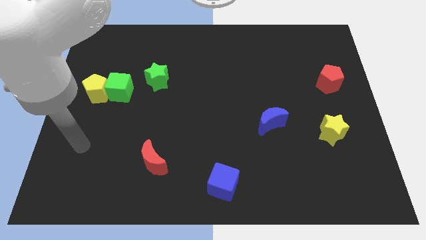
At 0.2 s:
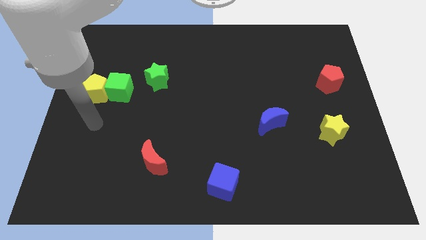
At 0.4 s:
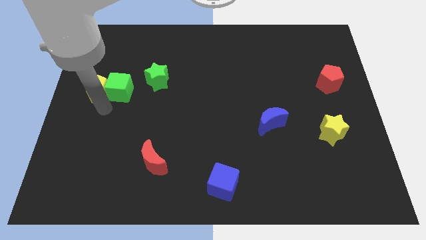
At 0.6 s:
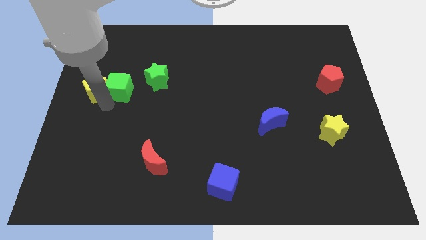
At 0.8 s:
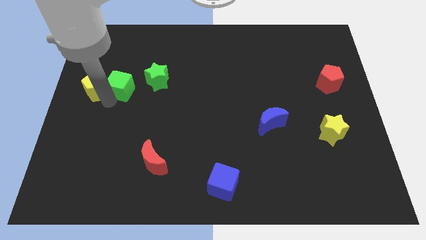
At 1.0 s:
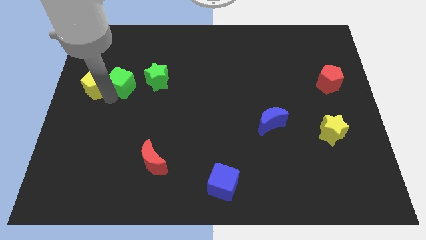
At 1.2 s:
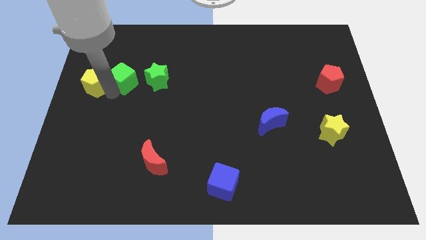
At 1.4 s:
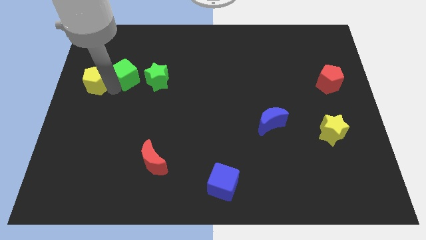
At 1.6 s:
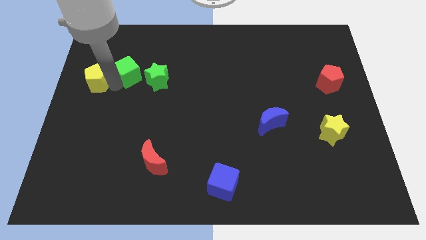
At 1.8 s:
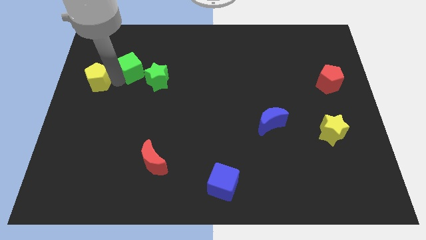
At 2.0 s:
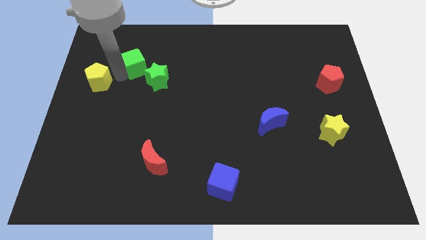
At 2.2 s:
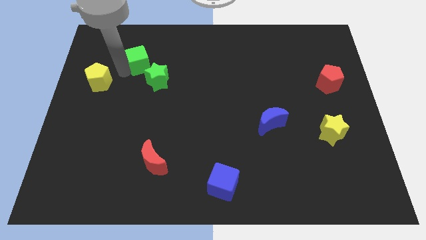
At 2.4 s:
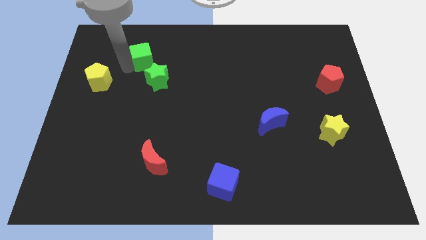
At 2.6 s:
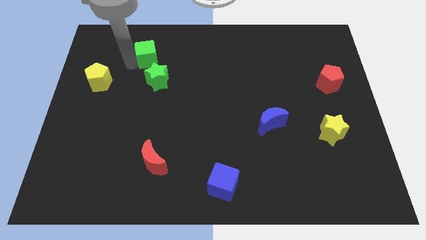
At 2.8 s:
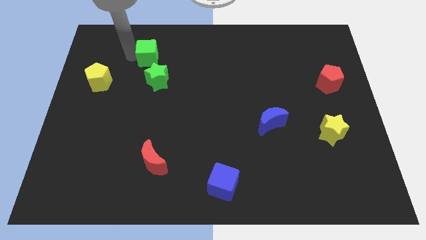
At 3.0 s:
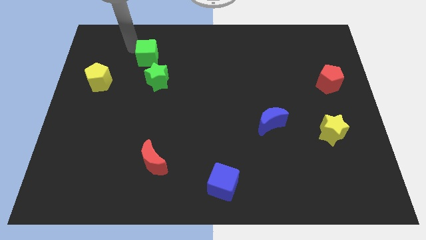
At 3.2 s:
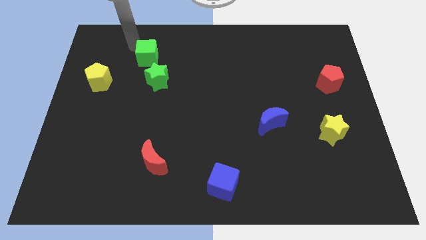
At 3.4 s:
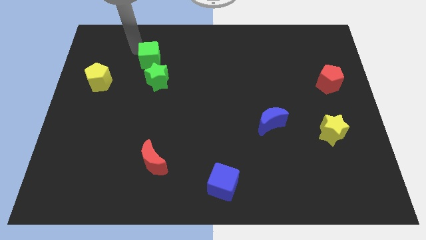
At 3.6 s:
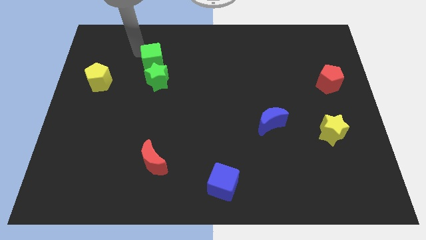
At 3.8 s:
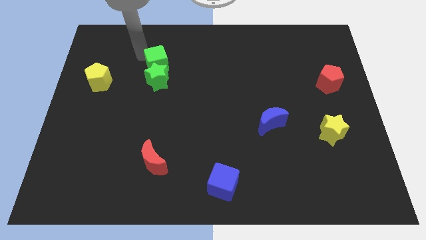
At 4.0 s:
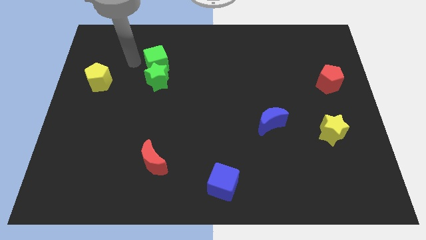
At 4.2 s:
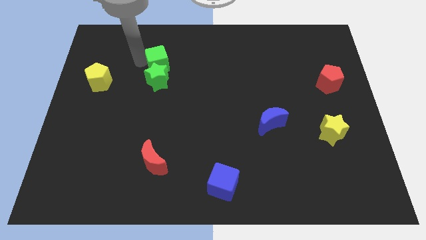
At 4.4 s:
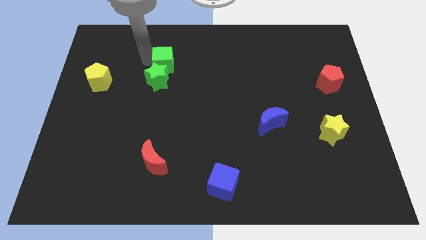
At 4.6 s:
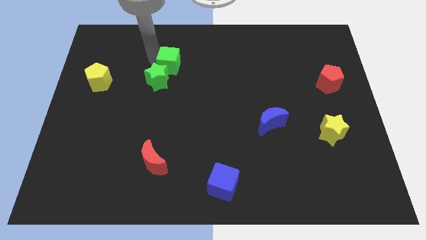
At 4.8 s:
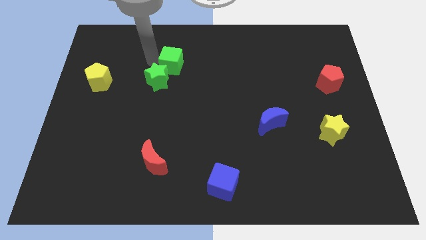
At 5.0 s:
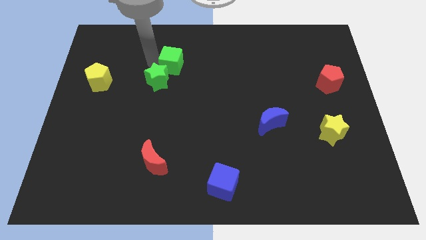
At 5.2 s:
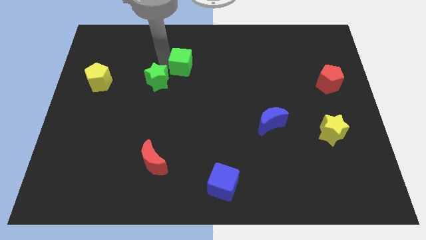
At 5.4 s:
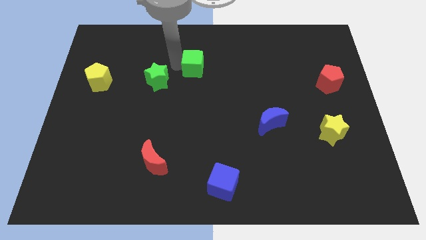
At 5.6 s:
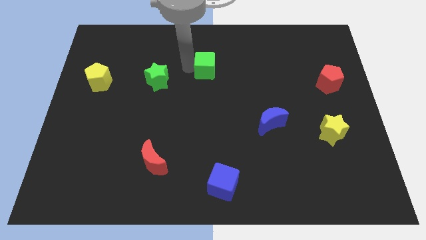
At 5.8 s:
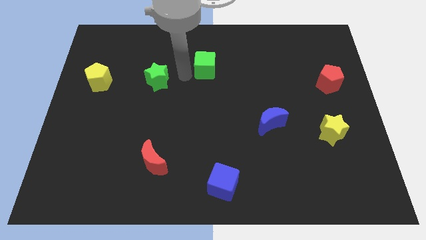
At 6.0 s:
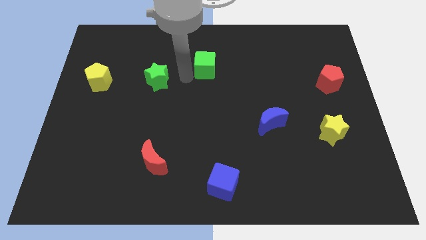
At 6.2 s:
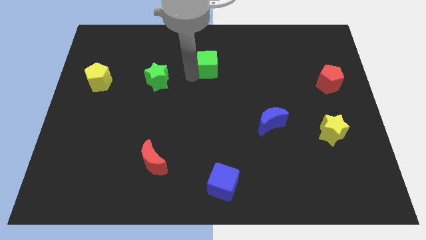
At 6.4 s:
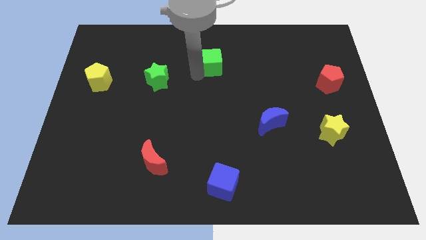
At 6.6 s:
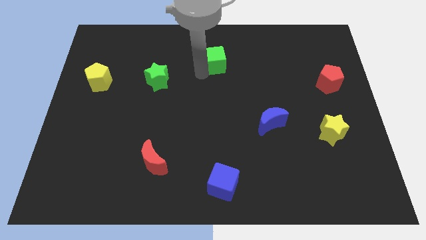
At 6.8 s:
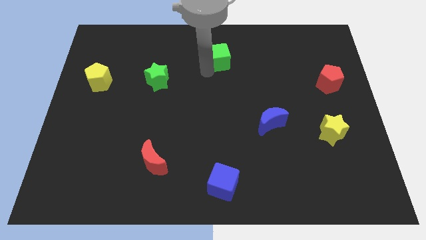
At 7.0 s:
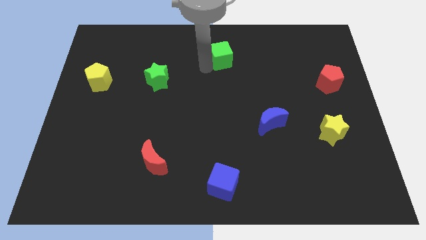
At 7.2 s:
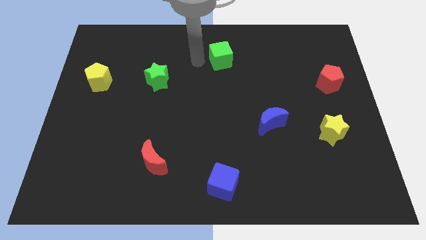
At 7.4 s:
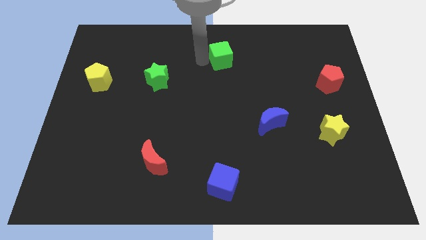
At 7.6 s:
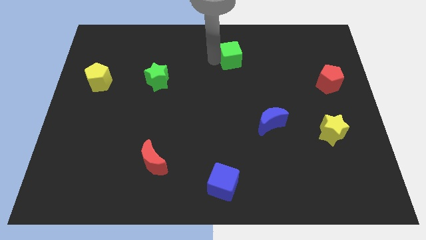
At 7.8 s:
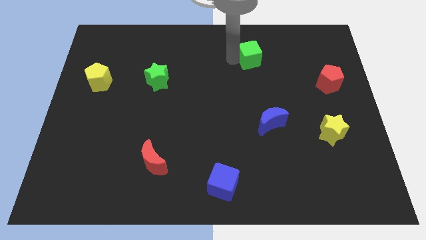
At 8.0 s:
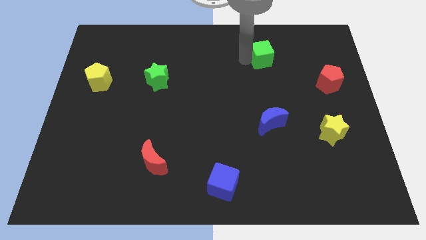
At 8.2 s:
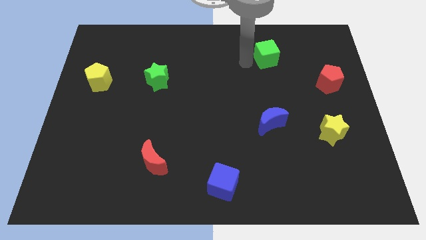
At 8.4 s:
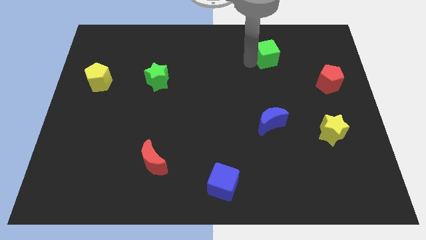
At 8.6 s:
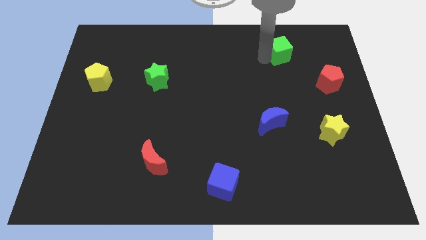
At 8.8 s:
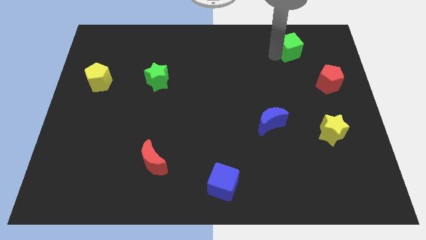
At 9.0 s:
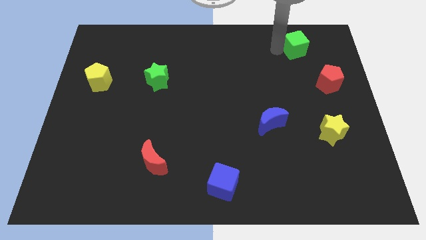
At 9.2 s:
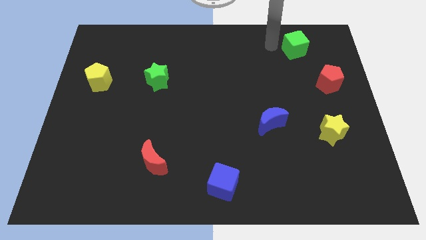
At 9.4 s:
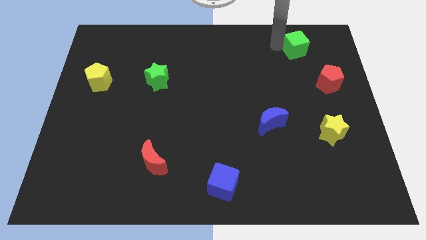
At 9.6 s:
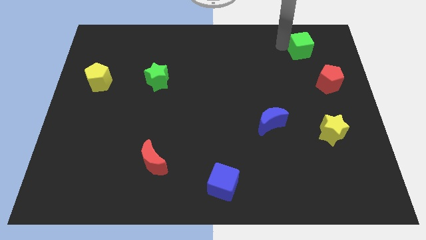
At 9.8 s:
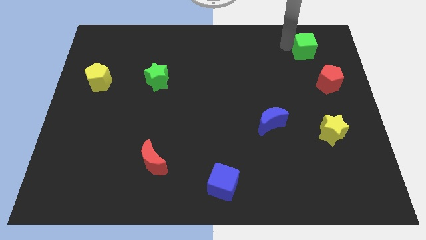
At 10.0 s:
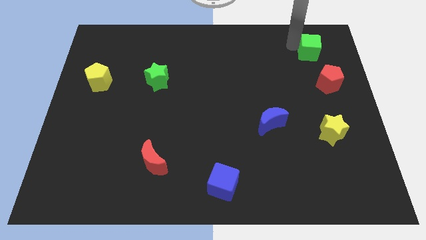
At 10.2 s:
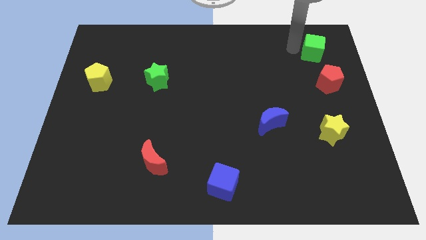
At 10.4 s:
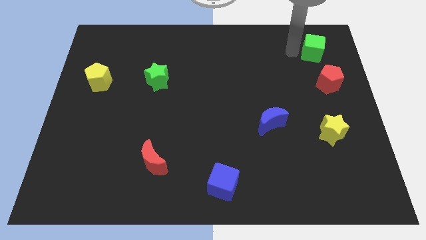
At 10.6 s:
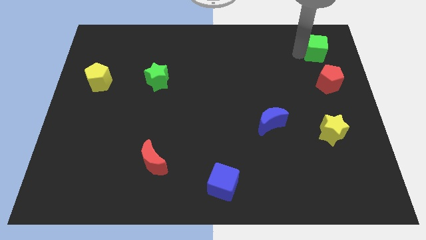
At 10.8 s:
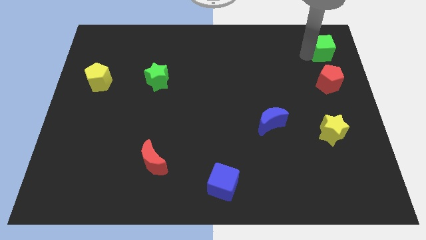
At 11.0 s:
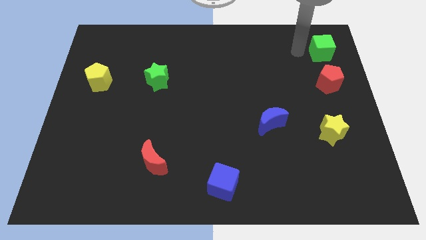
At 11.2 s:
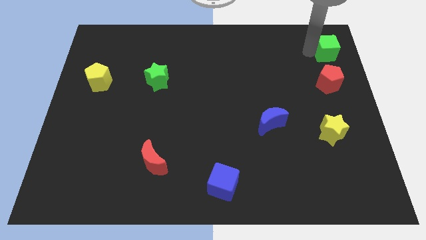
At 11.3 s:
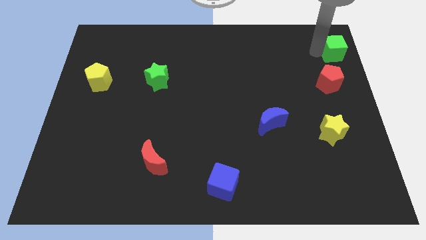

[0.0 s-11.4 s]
push the green cube to the top right

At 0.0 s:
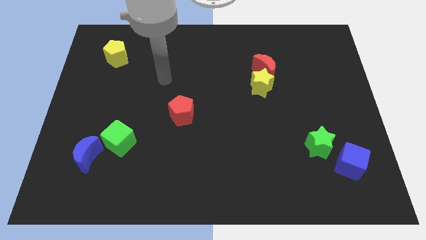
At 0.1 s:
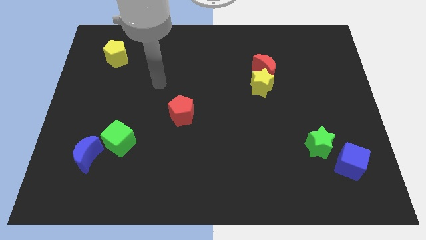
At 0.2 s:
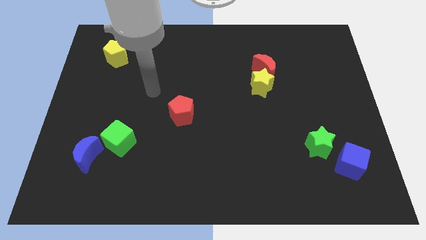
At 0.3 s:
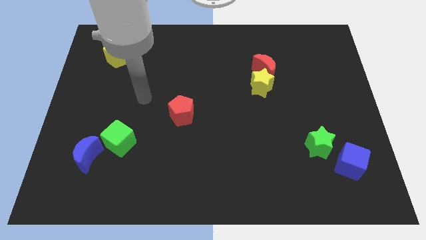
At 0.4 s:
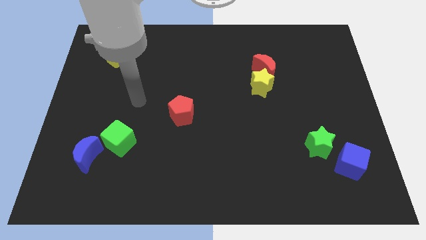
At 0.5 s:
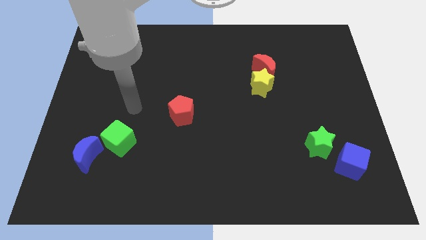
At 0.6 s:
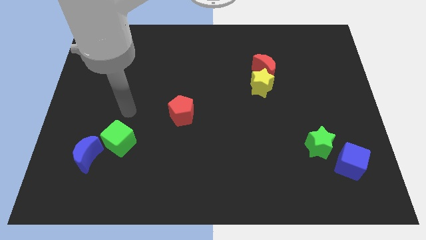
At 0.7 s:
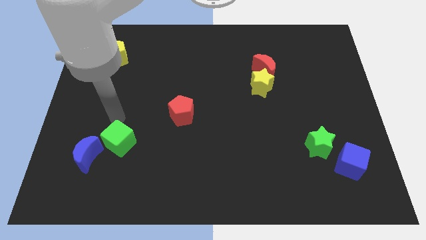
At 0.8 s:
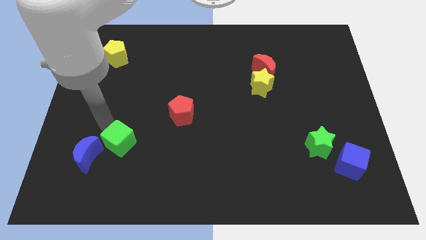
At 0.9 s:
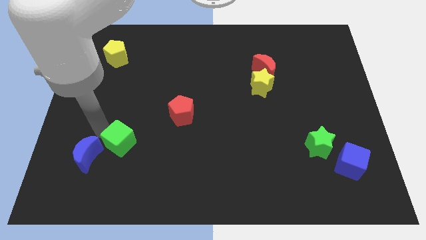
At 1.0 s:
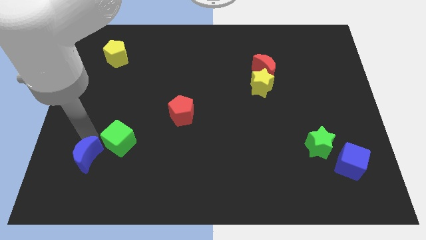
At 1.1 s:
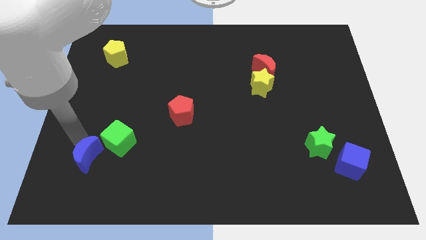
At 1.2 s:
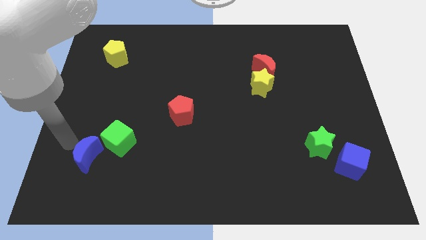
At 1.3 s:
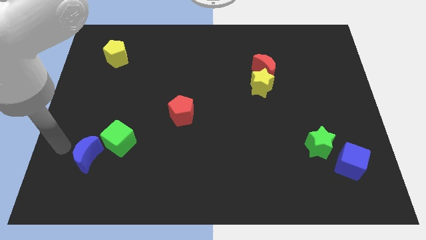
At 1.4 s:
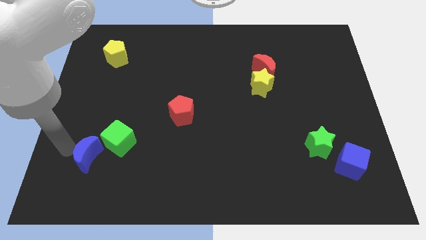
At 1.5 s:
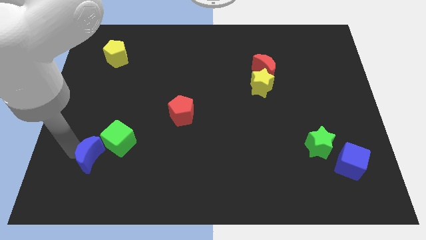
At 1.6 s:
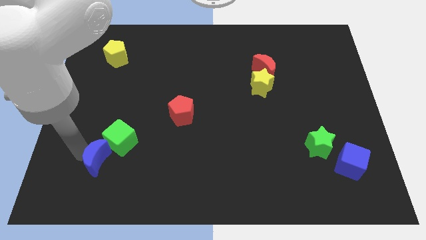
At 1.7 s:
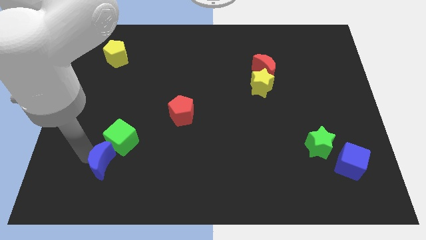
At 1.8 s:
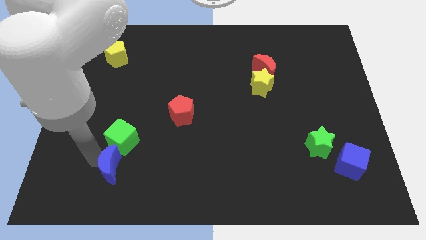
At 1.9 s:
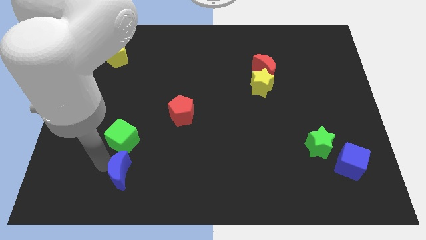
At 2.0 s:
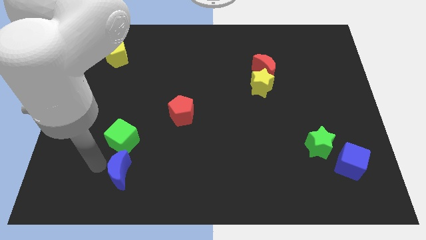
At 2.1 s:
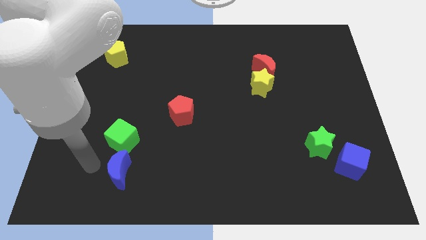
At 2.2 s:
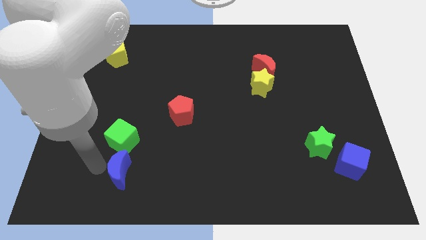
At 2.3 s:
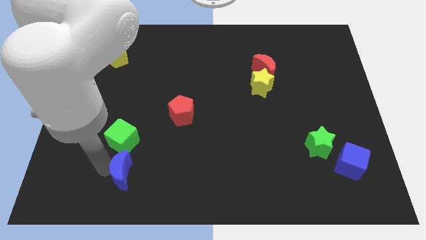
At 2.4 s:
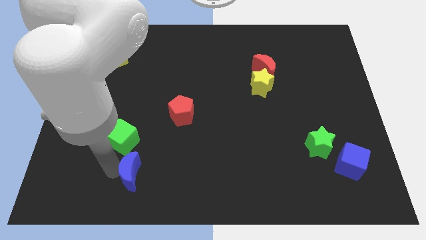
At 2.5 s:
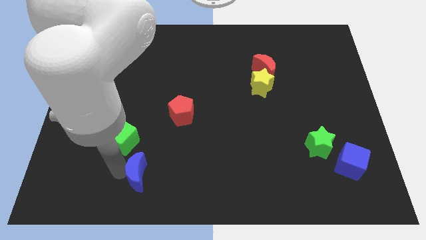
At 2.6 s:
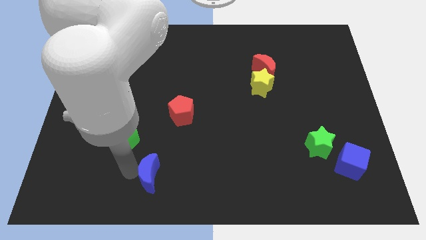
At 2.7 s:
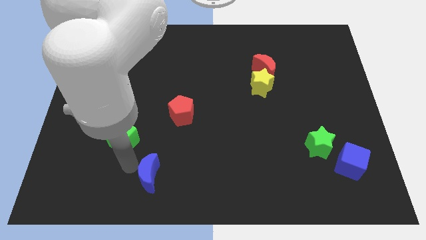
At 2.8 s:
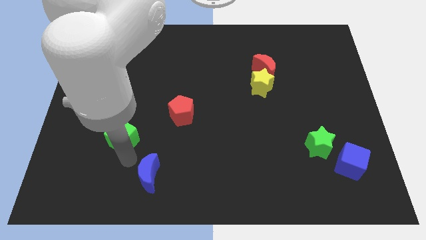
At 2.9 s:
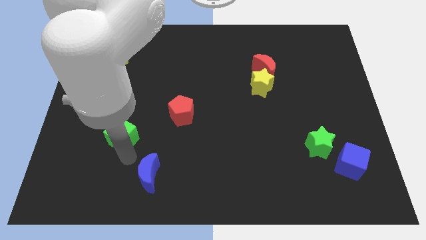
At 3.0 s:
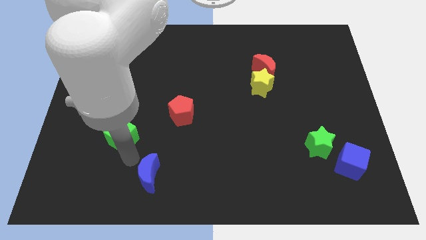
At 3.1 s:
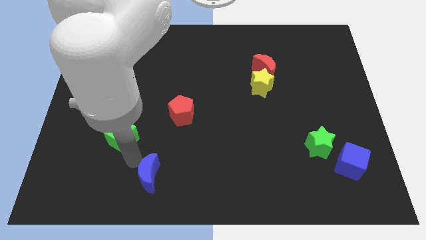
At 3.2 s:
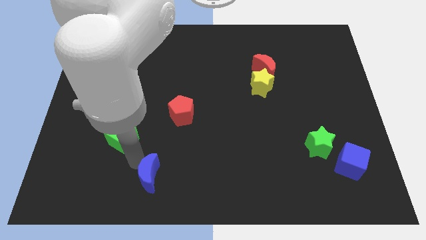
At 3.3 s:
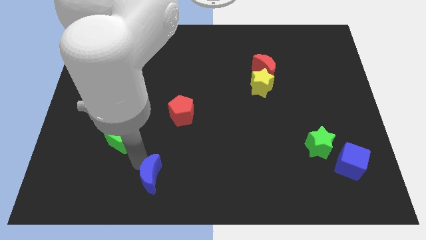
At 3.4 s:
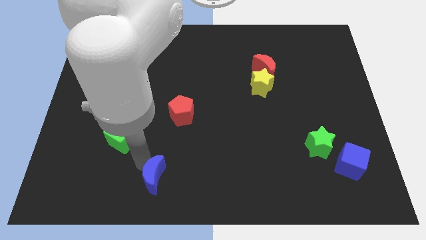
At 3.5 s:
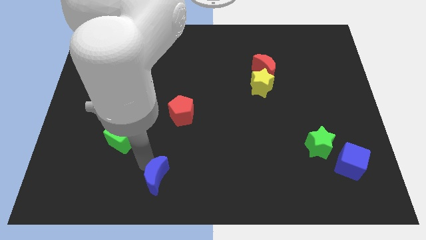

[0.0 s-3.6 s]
slide the blue moon to the bottom
